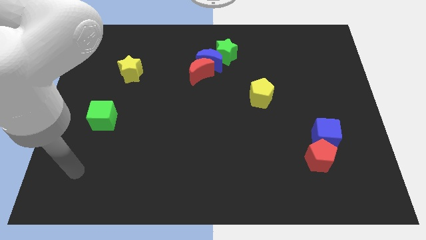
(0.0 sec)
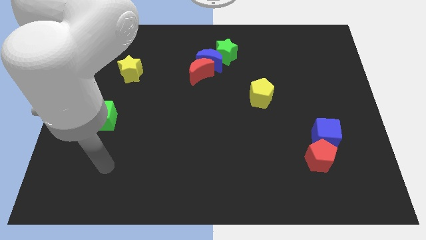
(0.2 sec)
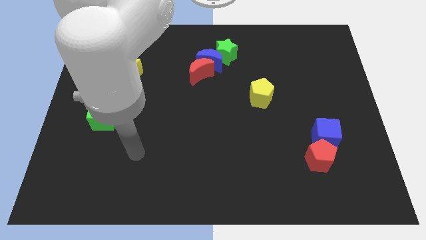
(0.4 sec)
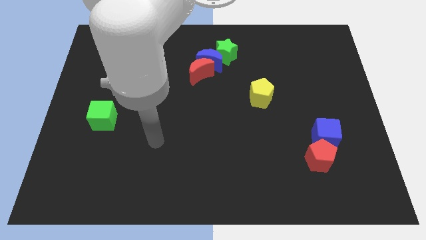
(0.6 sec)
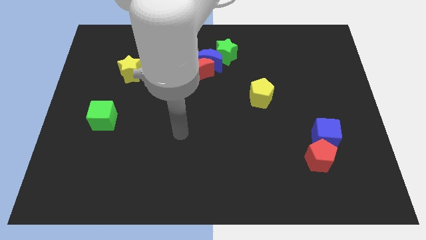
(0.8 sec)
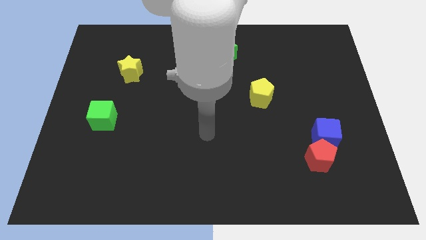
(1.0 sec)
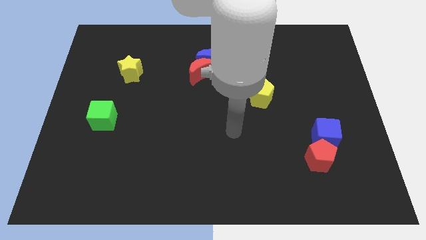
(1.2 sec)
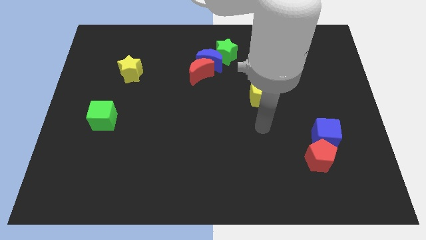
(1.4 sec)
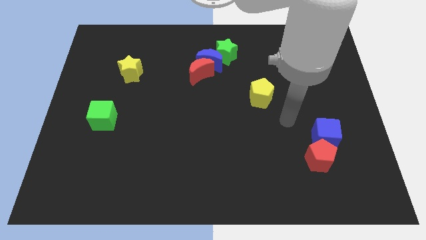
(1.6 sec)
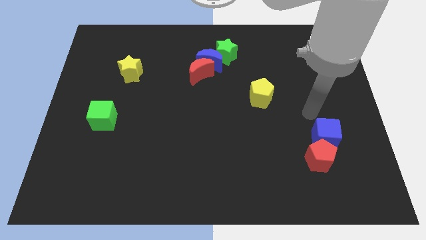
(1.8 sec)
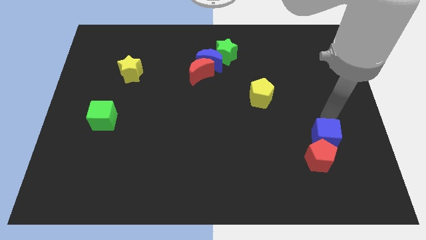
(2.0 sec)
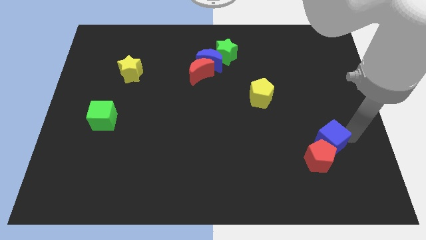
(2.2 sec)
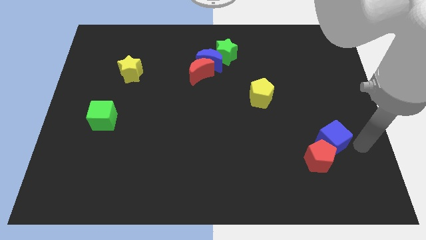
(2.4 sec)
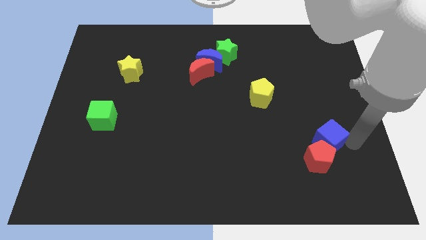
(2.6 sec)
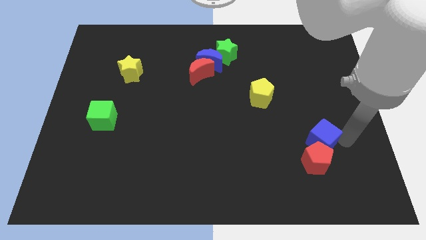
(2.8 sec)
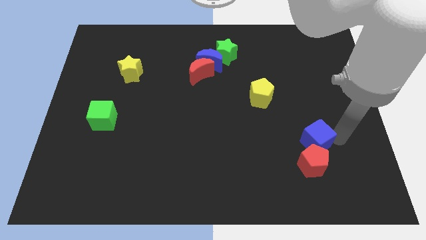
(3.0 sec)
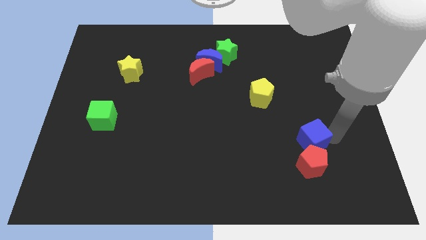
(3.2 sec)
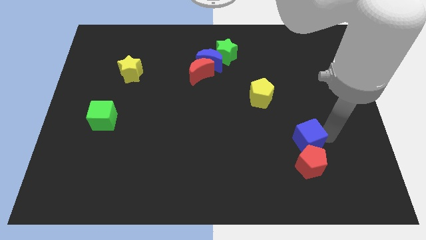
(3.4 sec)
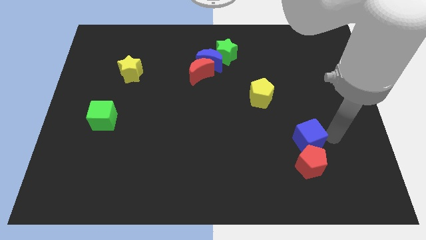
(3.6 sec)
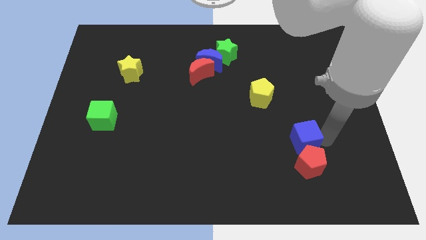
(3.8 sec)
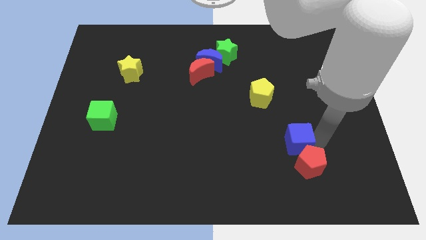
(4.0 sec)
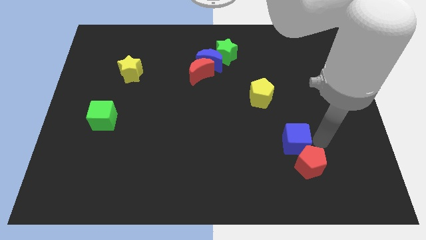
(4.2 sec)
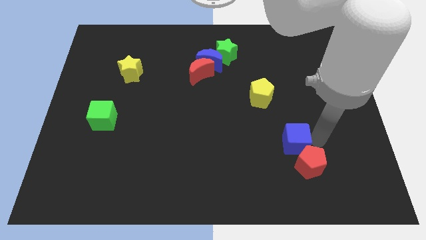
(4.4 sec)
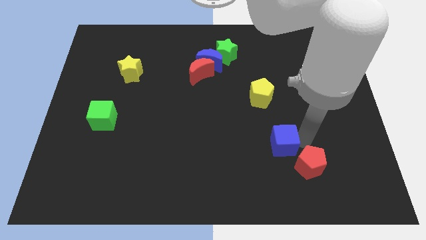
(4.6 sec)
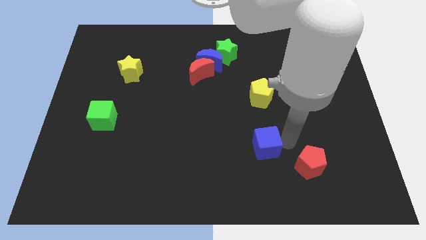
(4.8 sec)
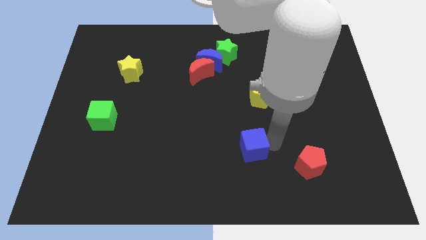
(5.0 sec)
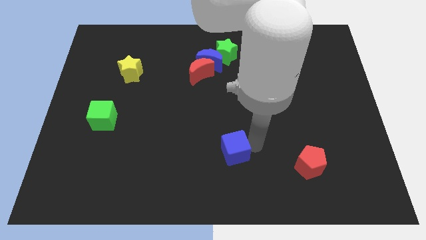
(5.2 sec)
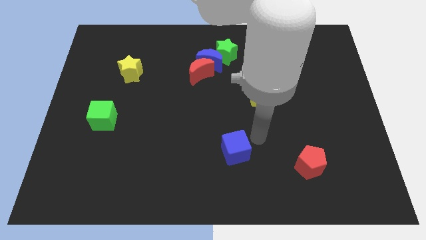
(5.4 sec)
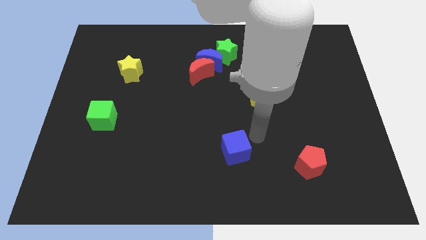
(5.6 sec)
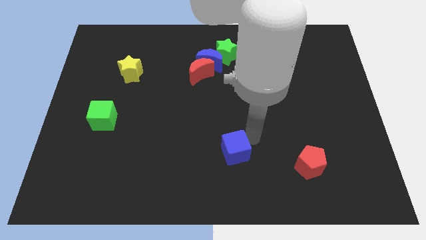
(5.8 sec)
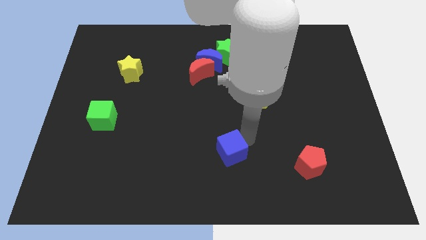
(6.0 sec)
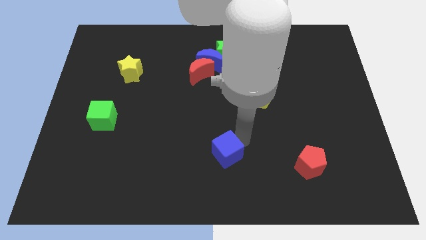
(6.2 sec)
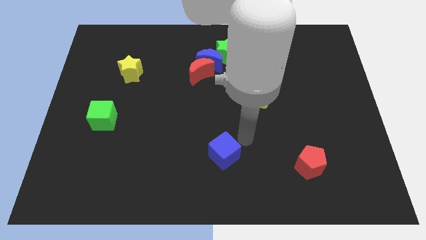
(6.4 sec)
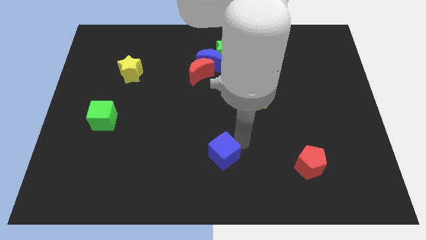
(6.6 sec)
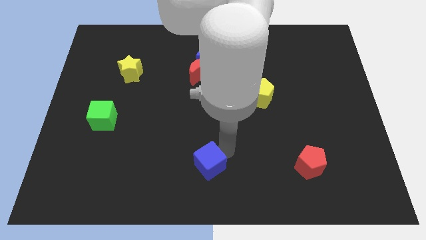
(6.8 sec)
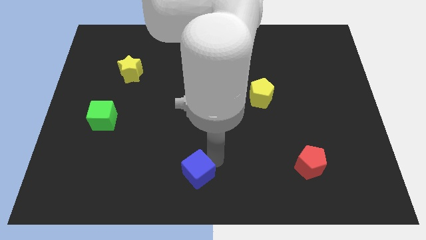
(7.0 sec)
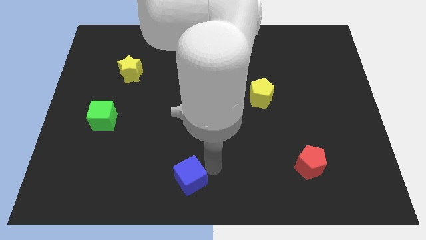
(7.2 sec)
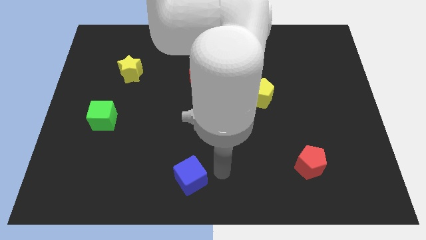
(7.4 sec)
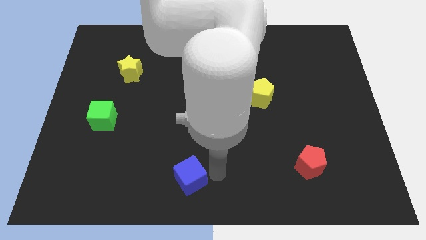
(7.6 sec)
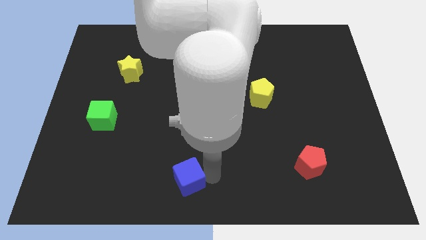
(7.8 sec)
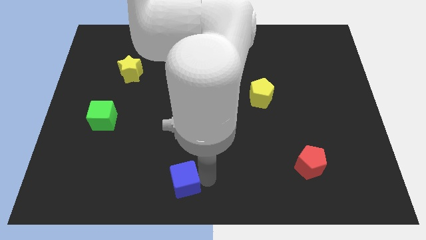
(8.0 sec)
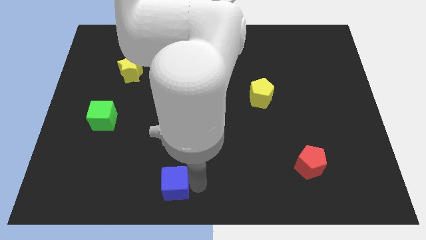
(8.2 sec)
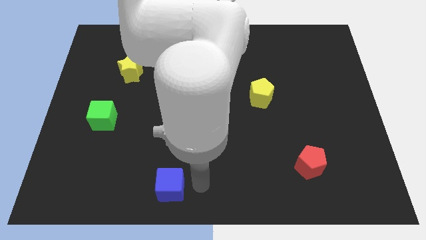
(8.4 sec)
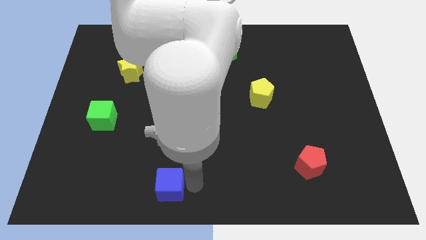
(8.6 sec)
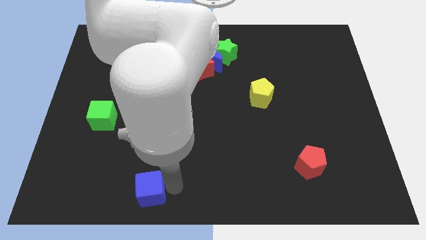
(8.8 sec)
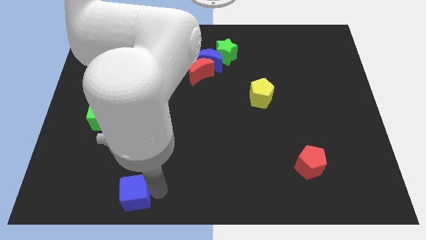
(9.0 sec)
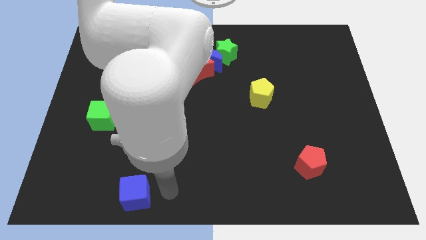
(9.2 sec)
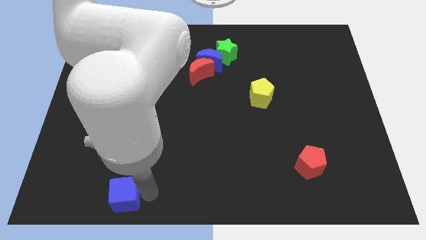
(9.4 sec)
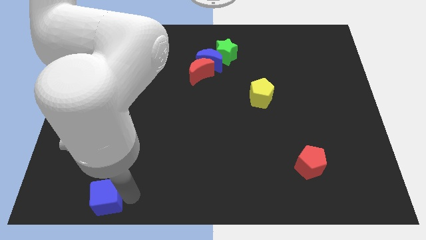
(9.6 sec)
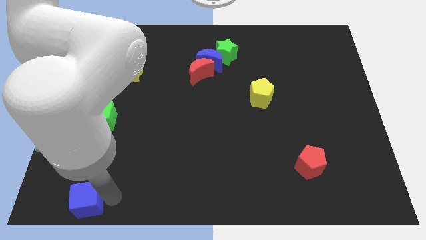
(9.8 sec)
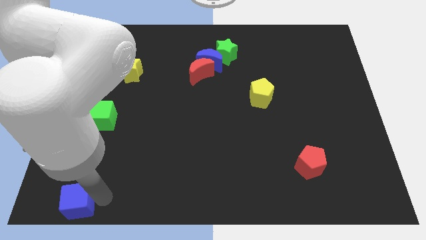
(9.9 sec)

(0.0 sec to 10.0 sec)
push the blue cube to the bottom left corner

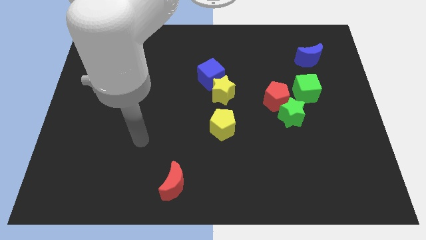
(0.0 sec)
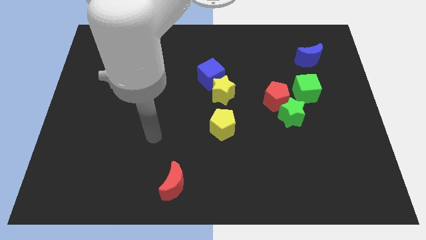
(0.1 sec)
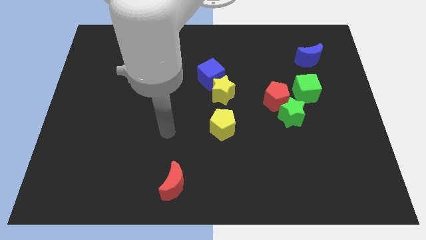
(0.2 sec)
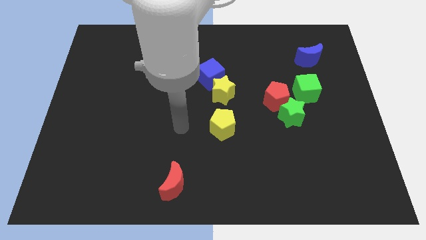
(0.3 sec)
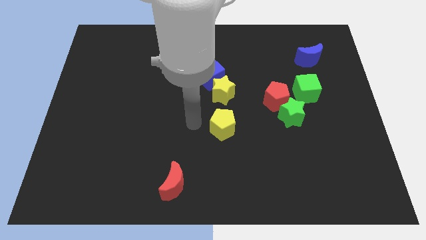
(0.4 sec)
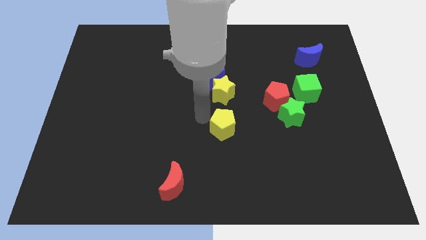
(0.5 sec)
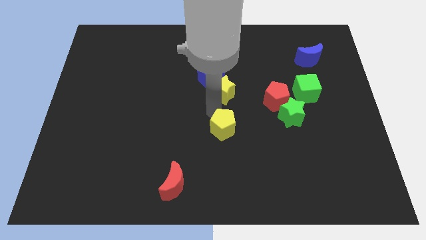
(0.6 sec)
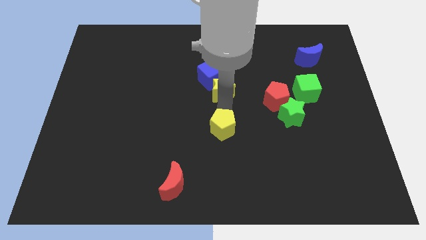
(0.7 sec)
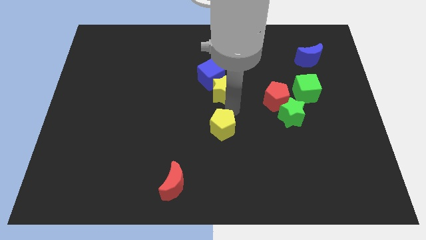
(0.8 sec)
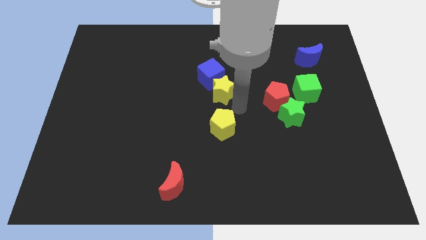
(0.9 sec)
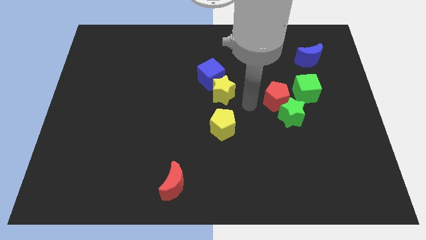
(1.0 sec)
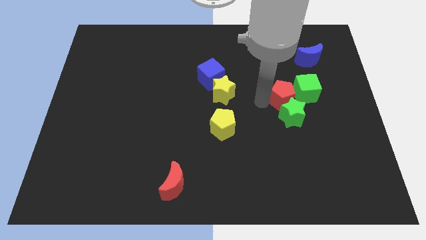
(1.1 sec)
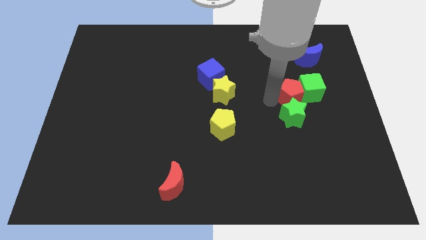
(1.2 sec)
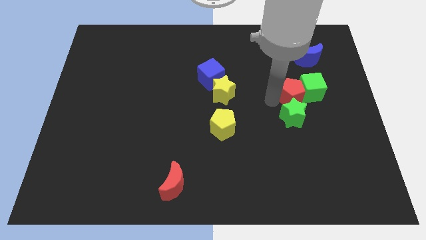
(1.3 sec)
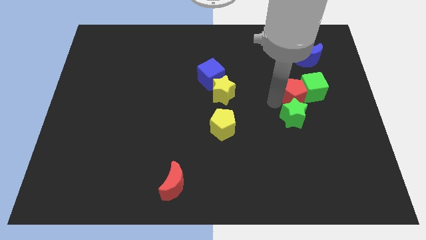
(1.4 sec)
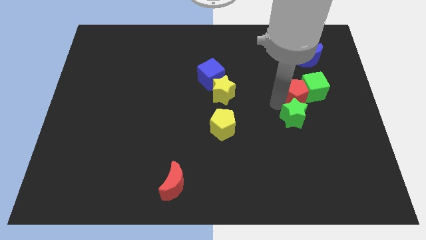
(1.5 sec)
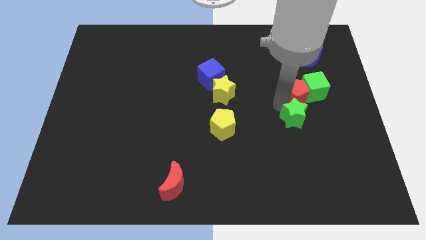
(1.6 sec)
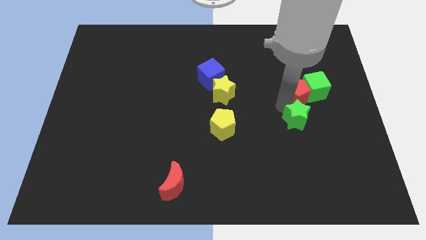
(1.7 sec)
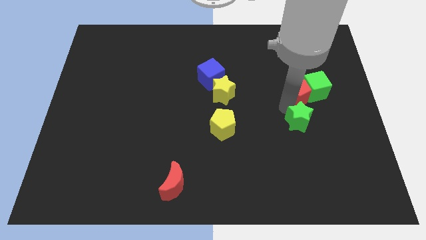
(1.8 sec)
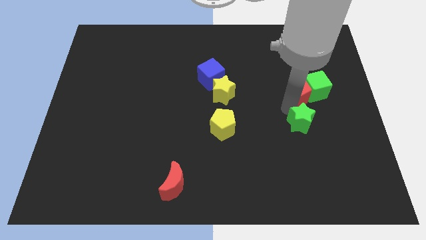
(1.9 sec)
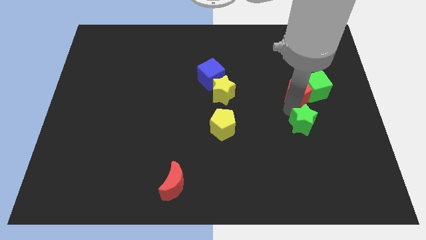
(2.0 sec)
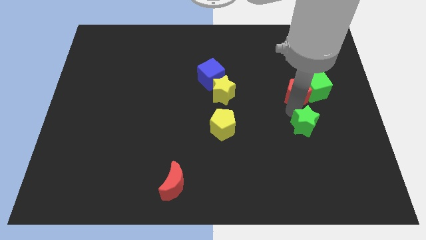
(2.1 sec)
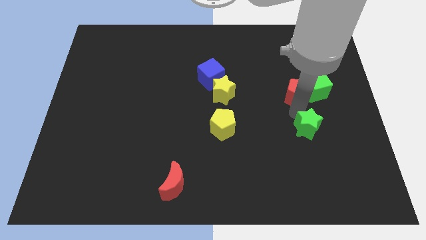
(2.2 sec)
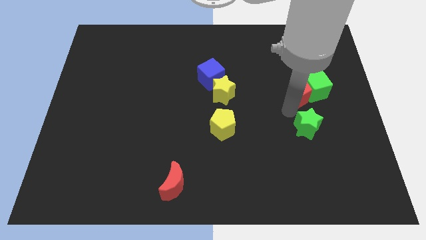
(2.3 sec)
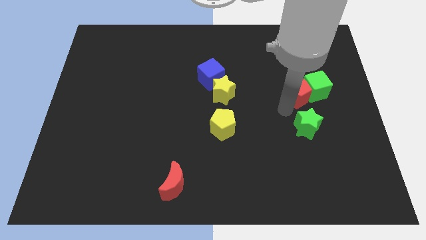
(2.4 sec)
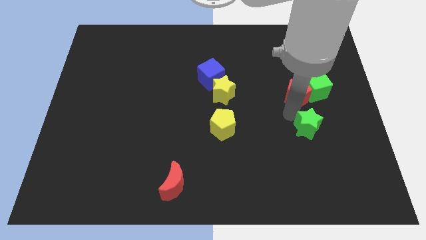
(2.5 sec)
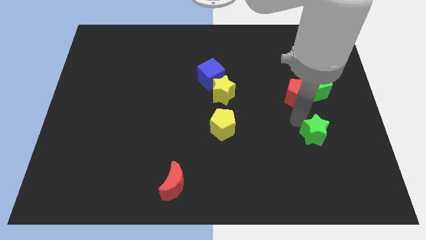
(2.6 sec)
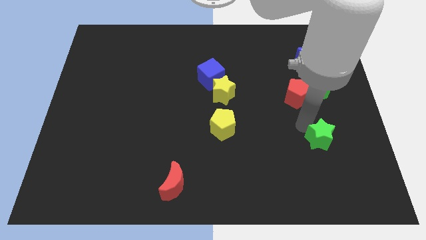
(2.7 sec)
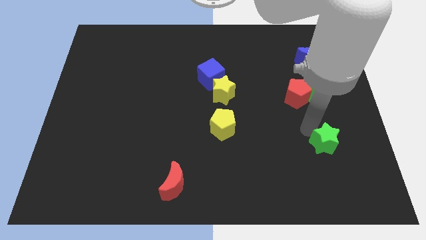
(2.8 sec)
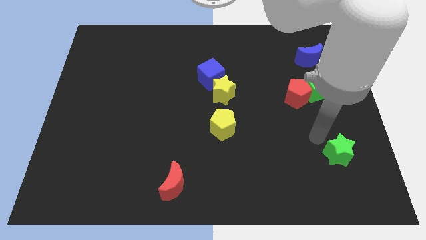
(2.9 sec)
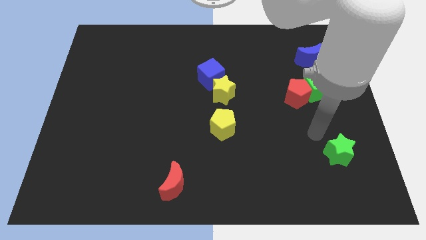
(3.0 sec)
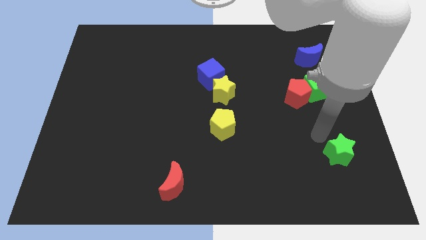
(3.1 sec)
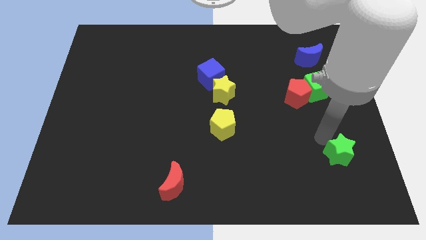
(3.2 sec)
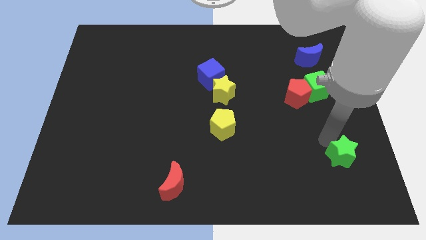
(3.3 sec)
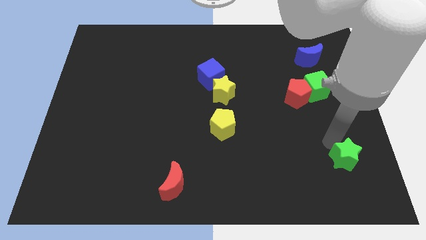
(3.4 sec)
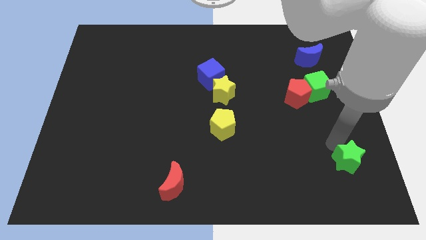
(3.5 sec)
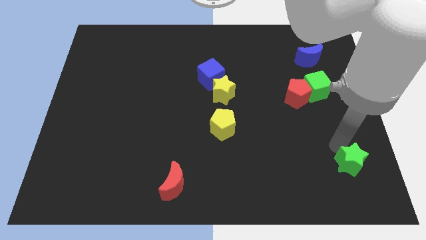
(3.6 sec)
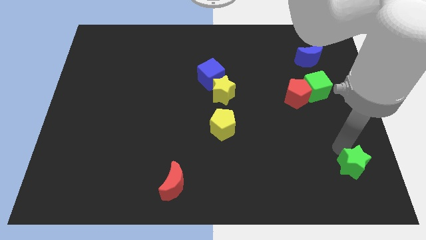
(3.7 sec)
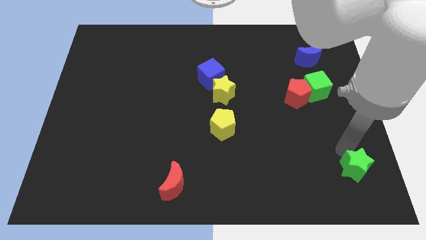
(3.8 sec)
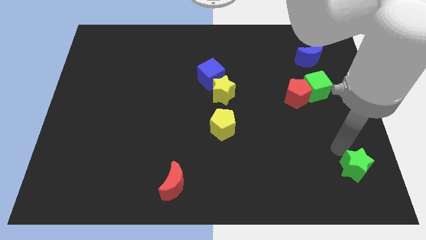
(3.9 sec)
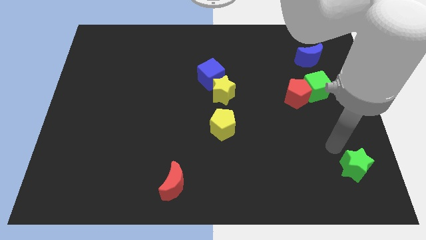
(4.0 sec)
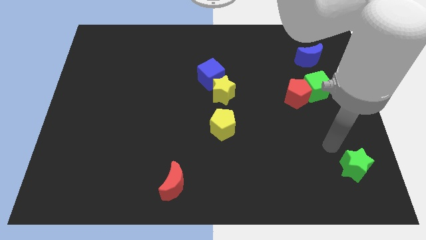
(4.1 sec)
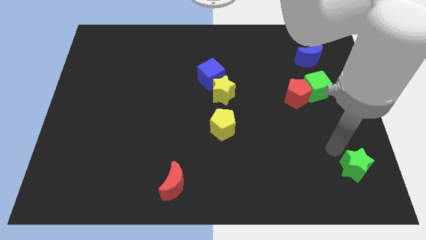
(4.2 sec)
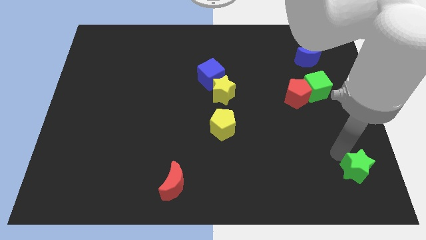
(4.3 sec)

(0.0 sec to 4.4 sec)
move the green star to the bottom right corner
